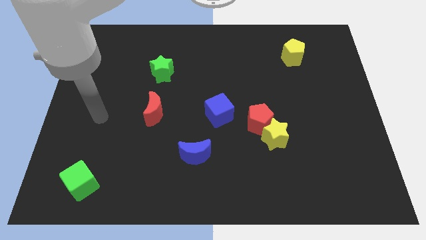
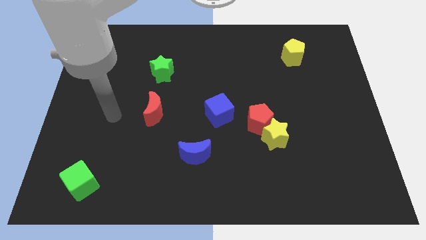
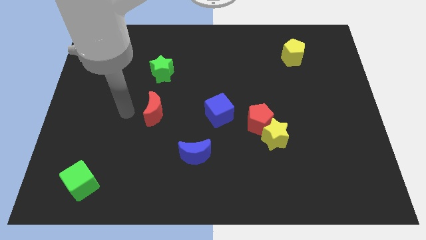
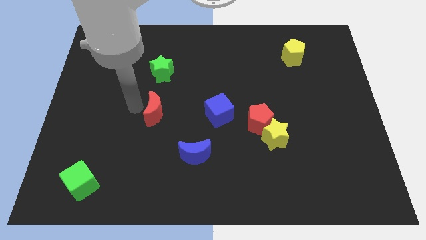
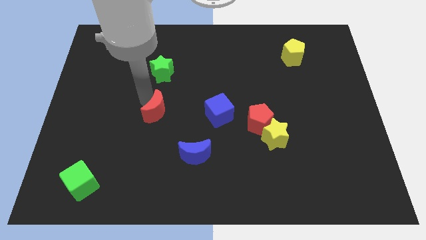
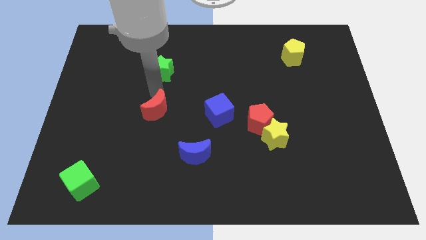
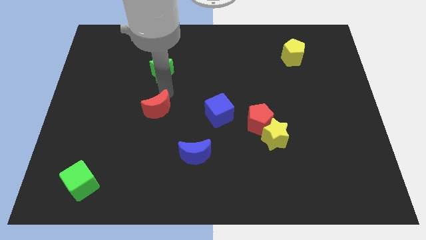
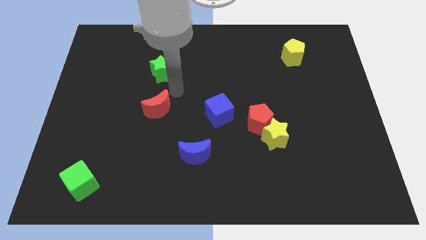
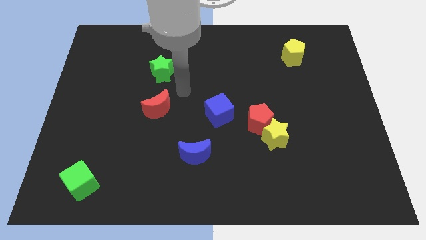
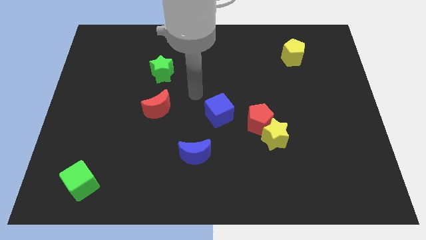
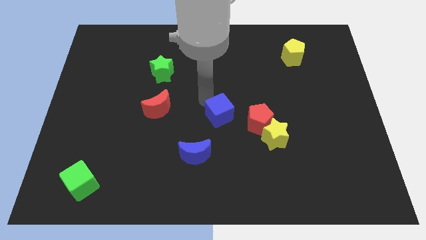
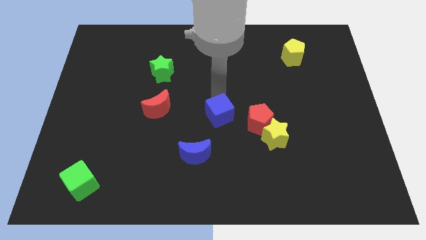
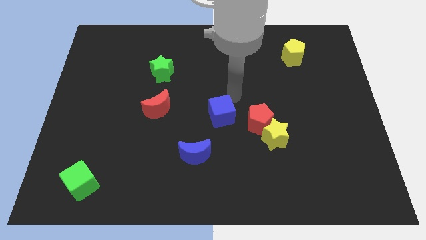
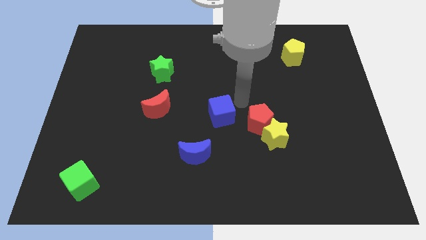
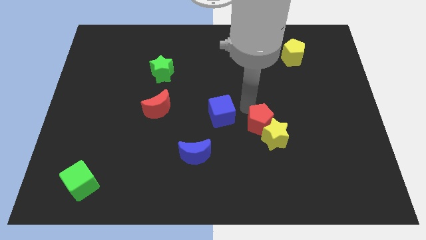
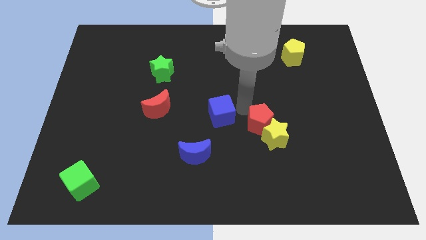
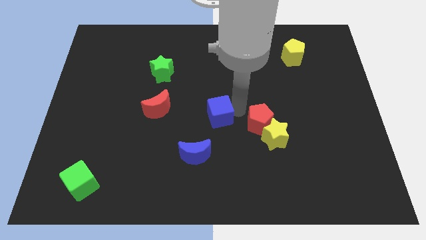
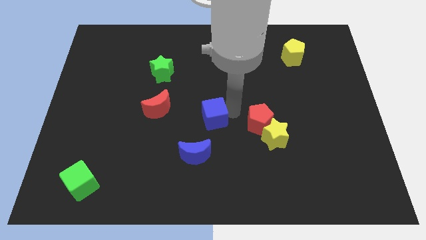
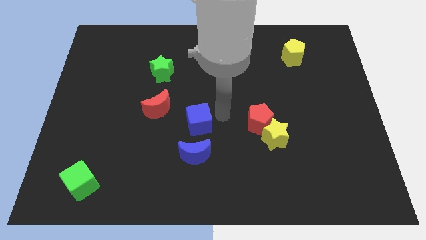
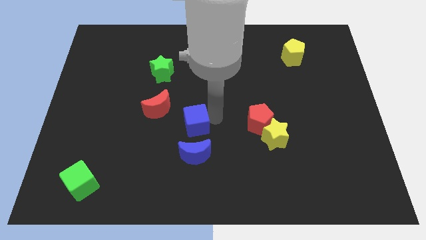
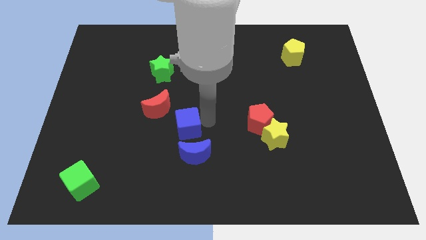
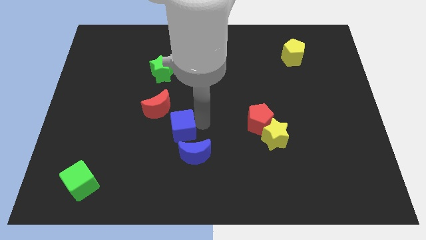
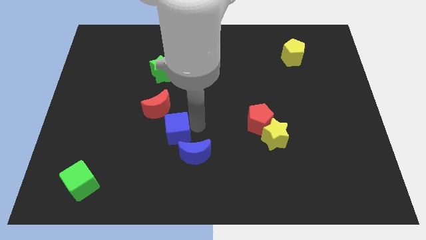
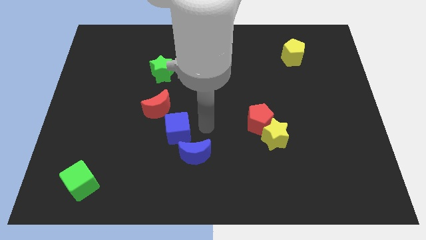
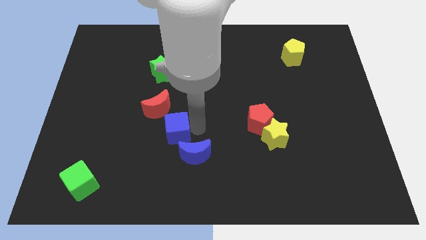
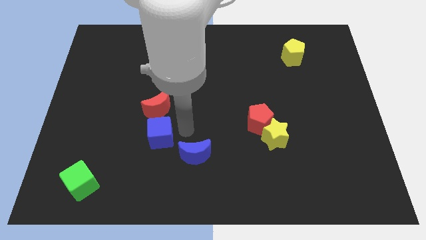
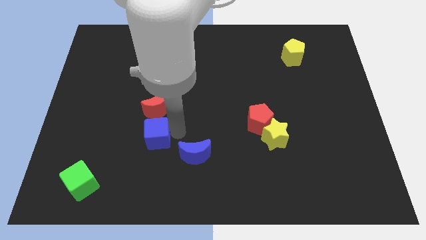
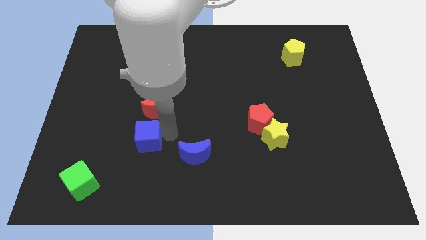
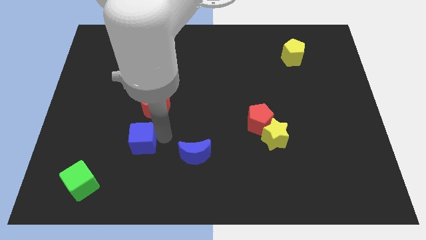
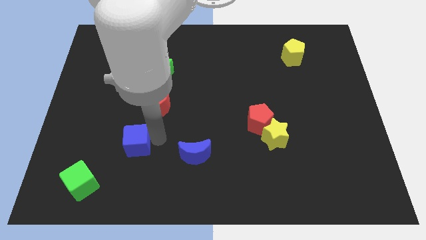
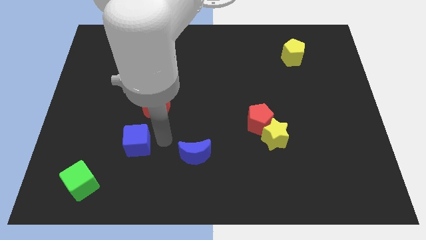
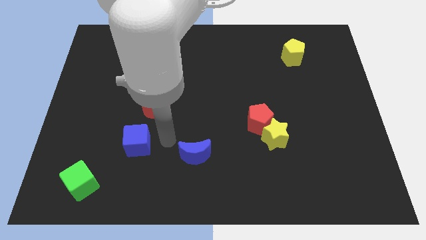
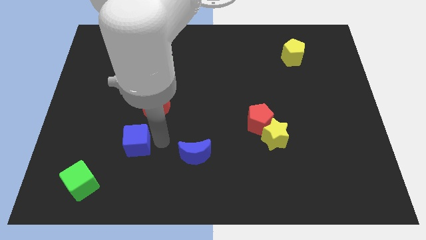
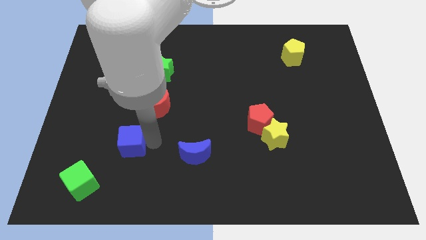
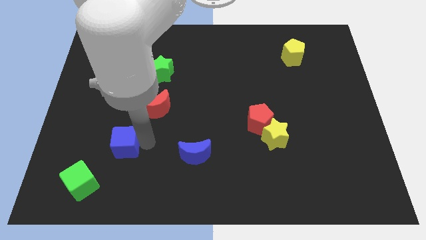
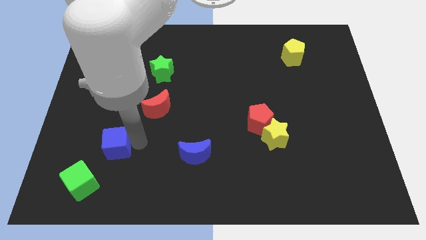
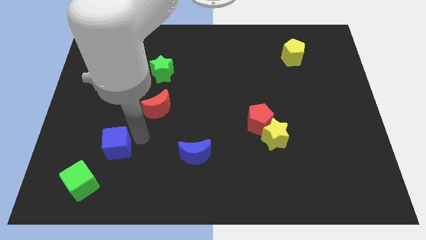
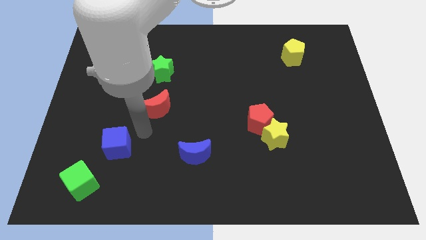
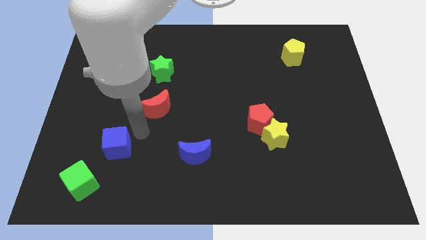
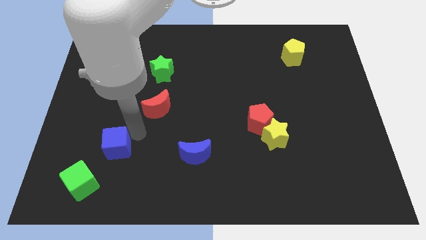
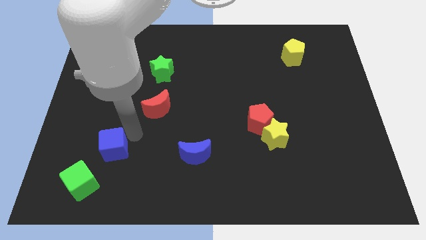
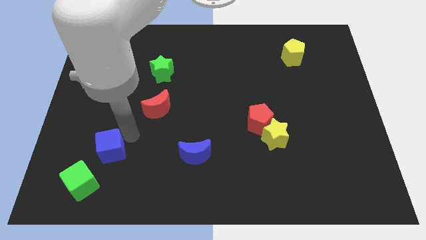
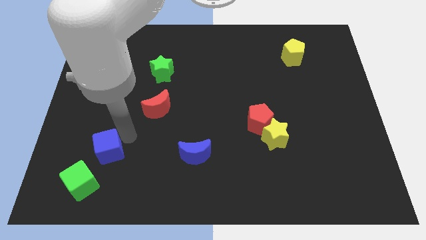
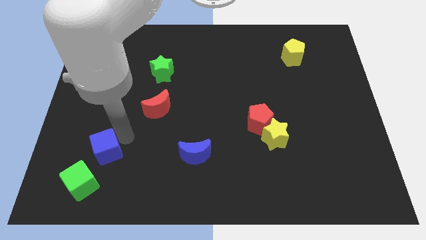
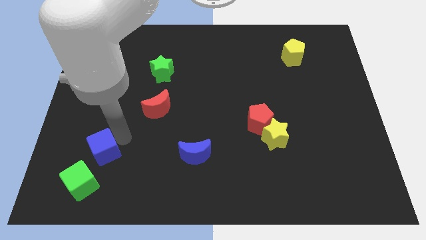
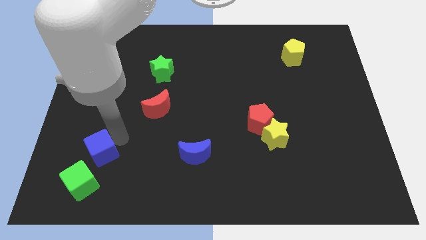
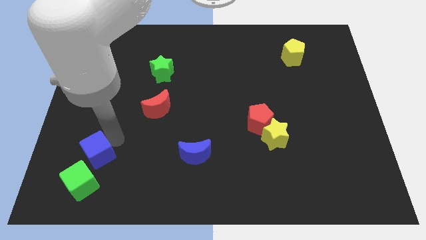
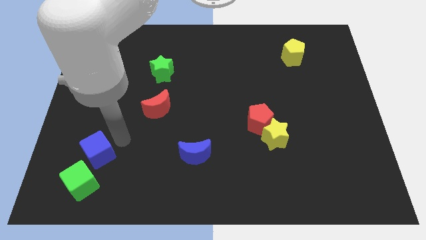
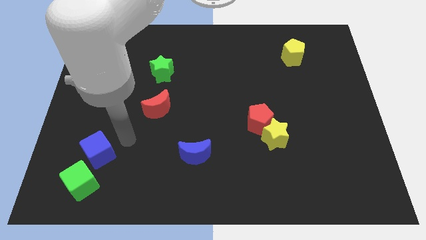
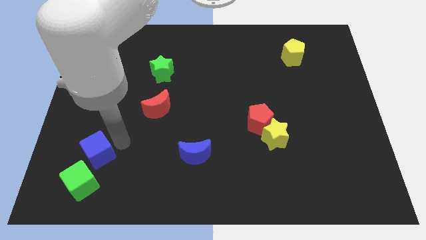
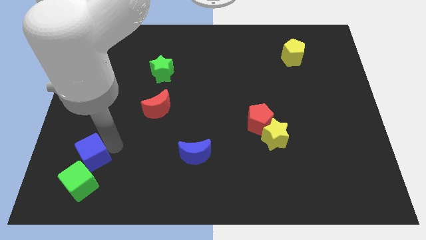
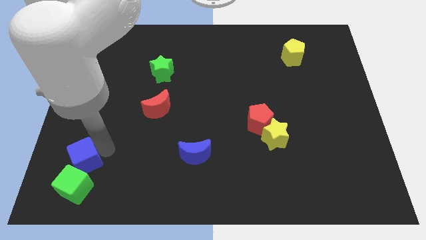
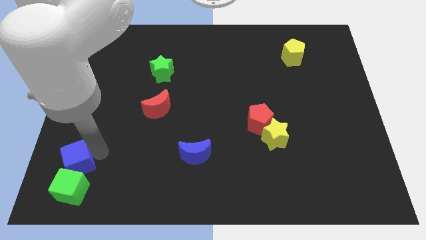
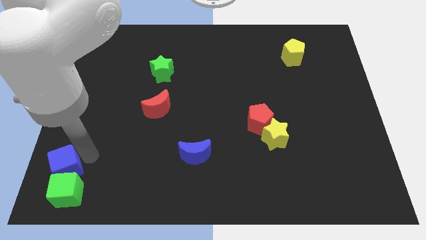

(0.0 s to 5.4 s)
move the blue cube to the bottom left of the board

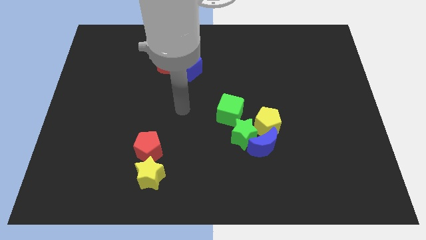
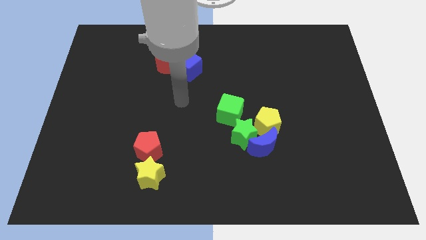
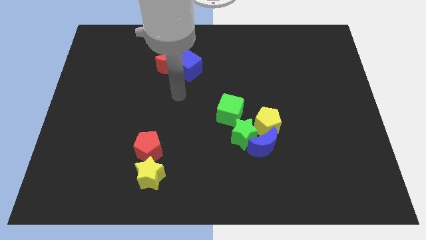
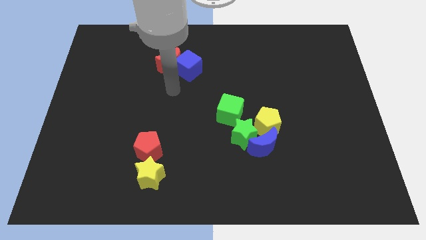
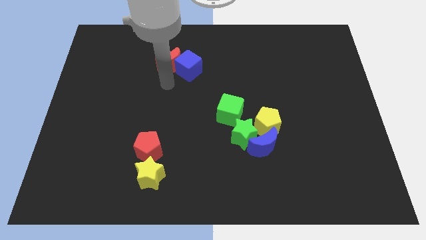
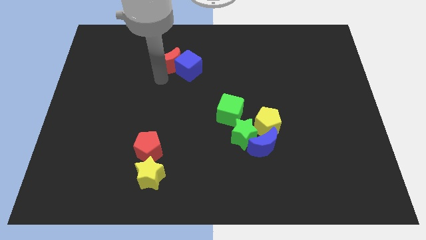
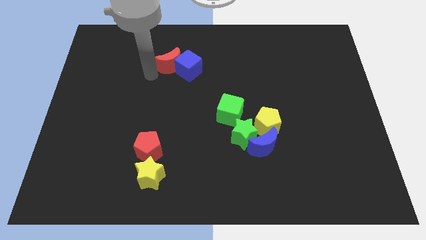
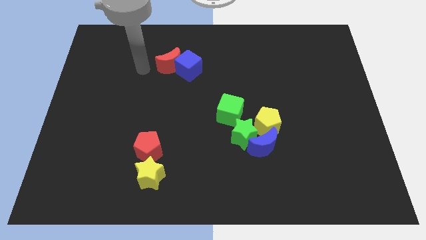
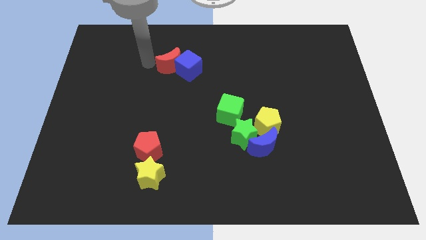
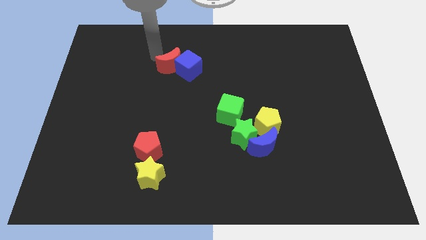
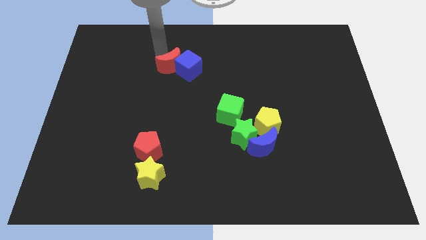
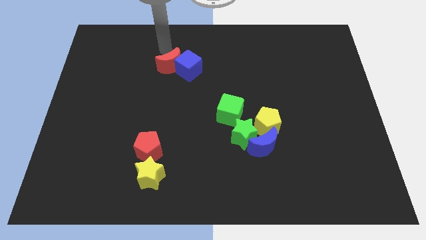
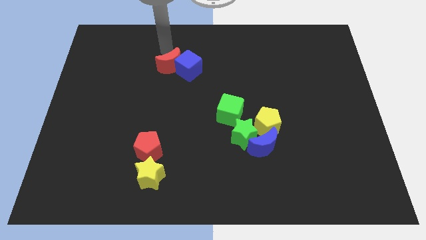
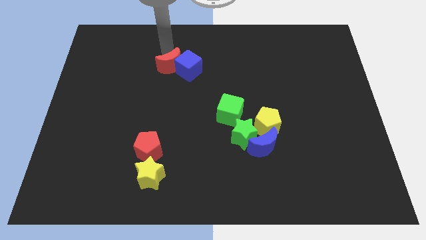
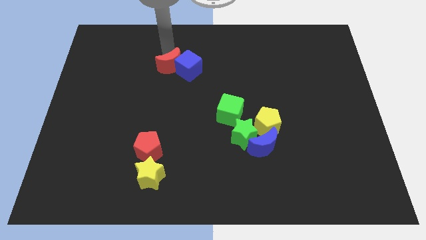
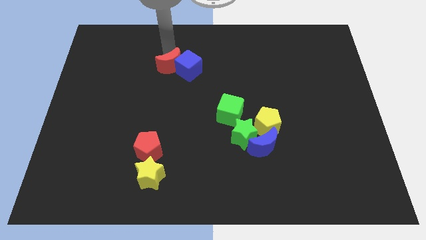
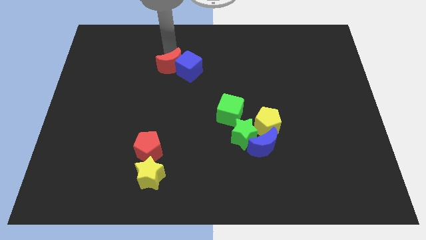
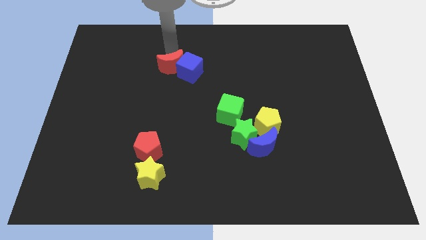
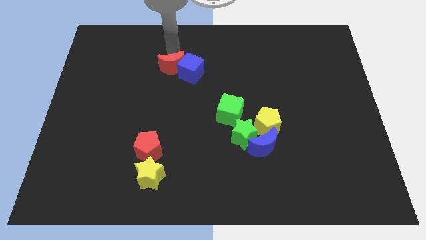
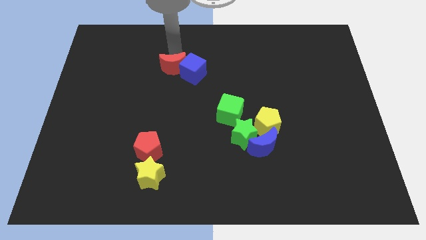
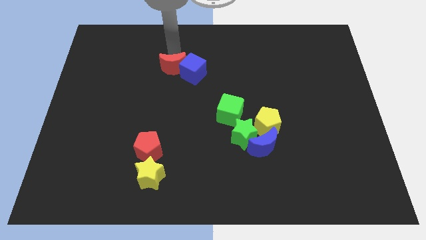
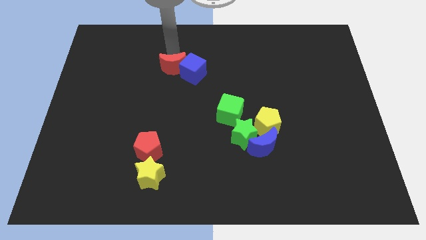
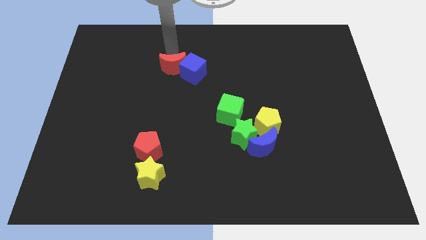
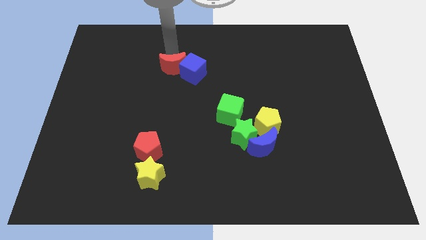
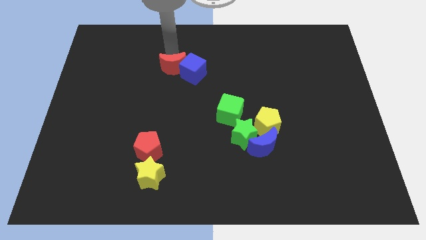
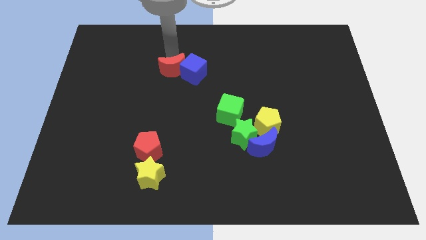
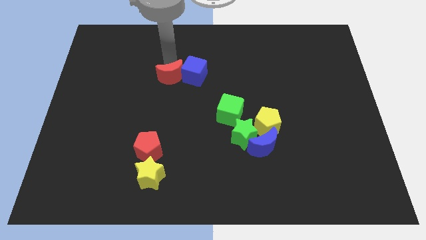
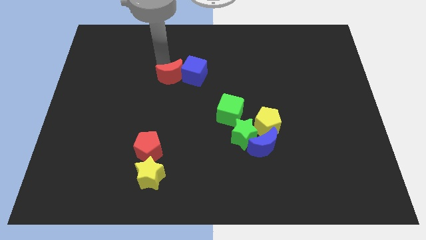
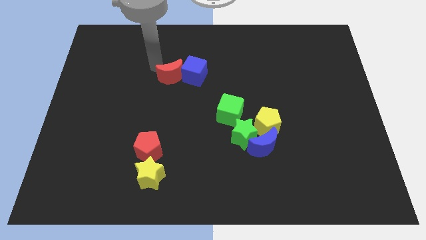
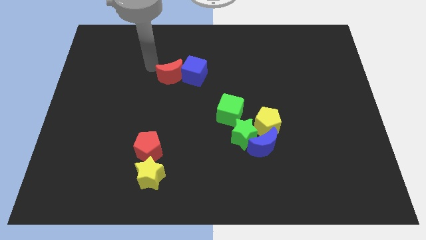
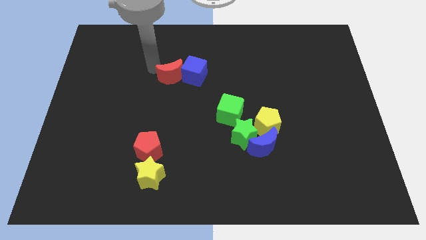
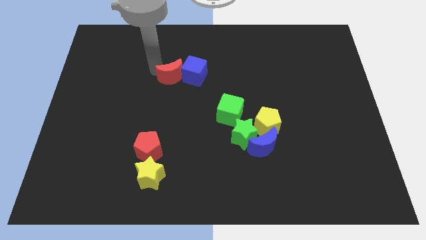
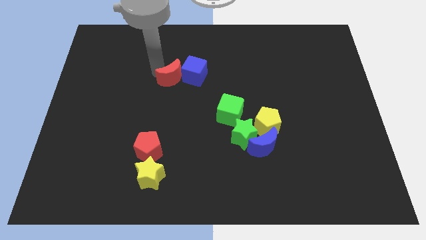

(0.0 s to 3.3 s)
push the red moon to the middle of the board
